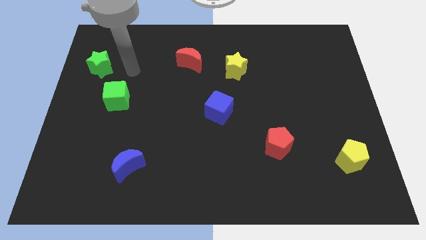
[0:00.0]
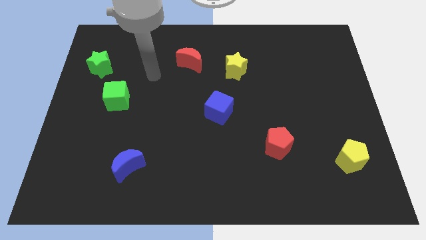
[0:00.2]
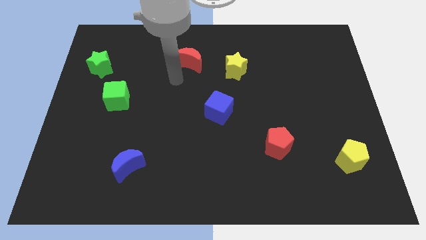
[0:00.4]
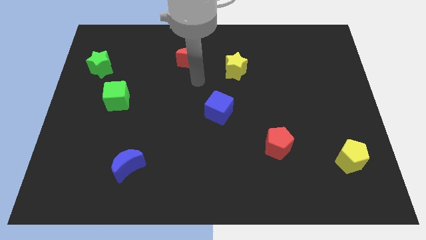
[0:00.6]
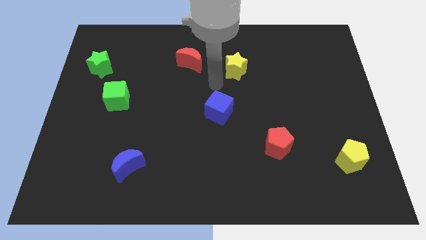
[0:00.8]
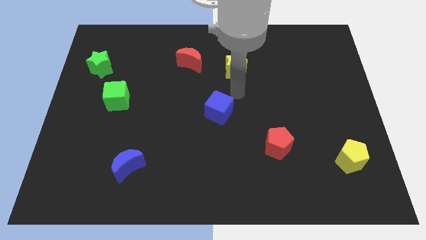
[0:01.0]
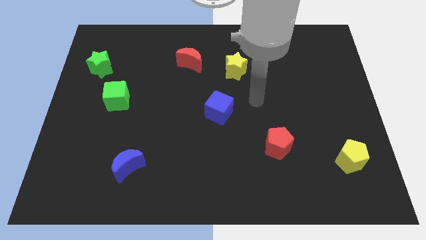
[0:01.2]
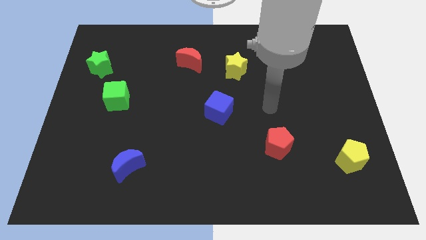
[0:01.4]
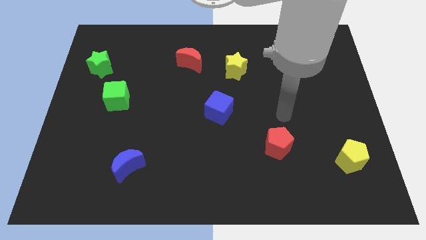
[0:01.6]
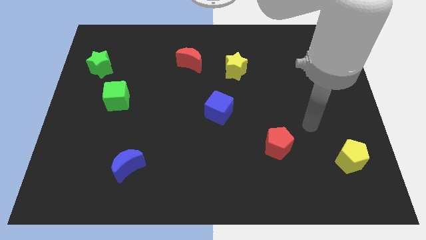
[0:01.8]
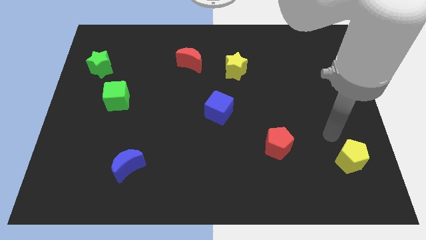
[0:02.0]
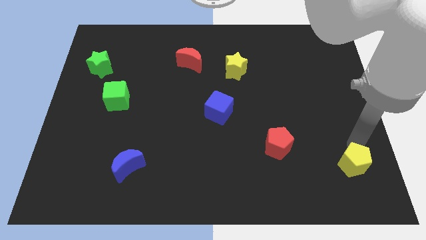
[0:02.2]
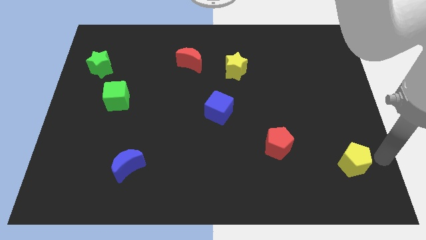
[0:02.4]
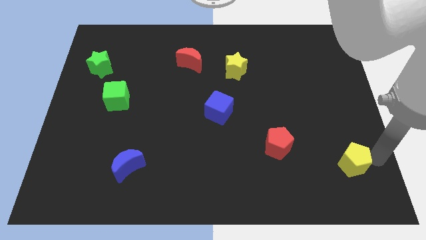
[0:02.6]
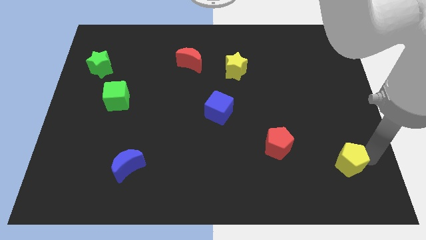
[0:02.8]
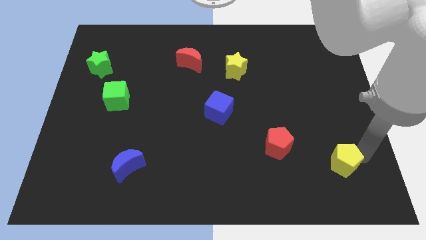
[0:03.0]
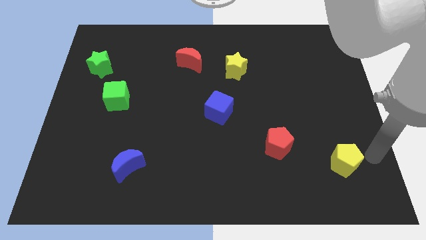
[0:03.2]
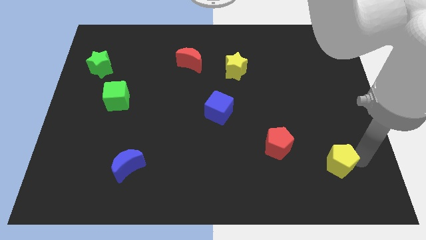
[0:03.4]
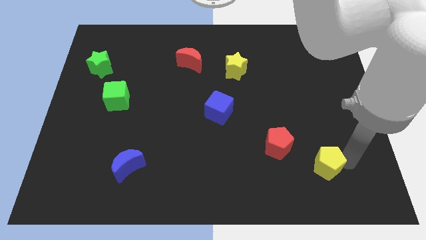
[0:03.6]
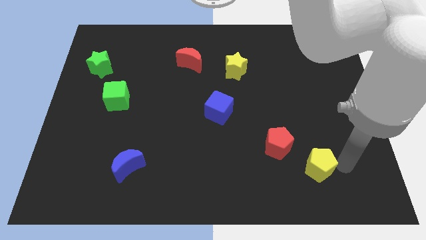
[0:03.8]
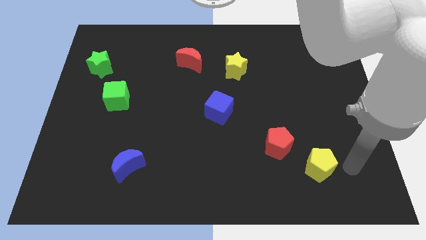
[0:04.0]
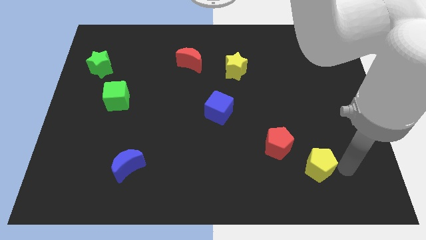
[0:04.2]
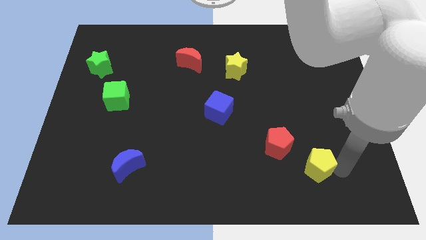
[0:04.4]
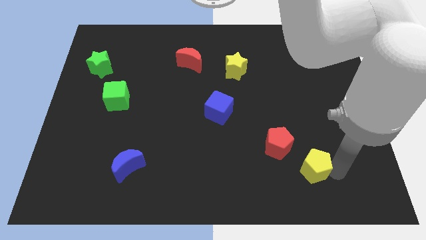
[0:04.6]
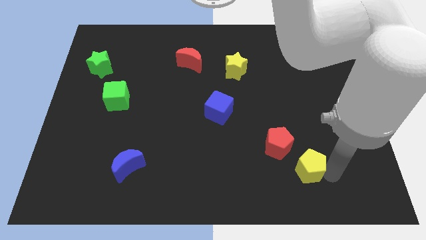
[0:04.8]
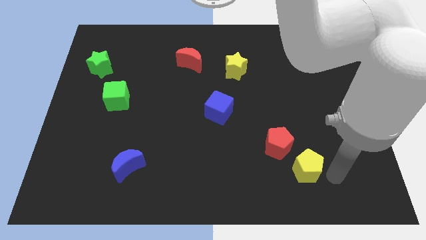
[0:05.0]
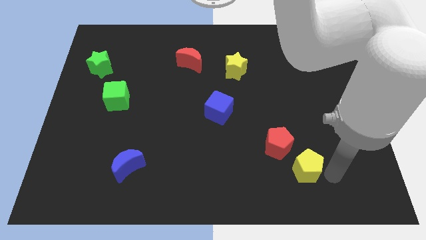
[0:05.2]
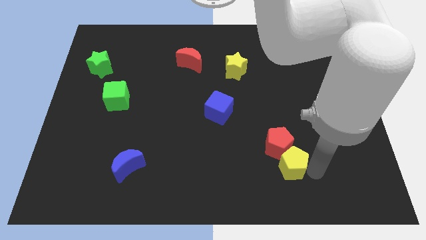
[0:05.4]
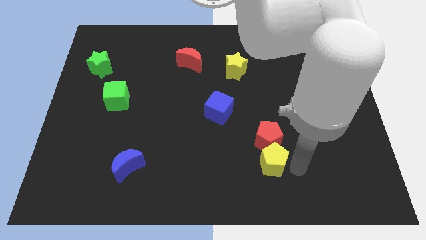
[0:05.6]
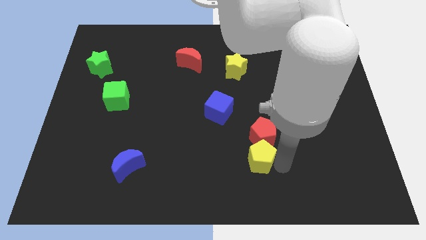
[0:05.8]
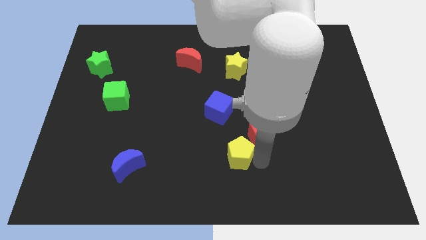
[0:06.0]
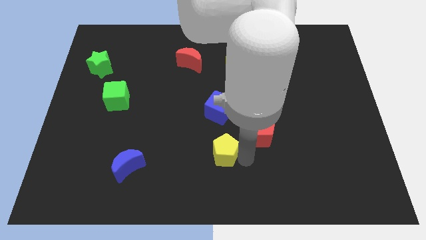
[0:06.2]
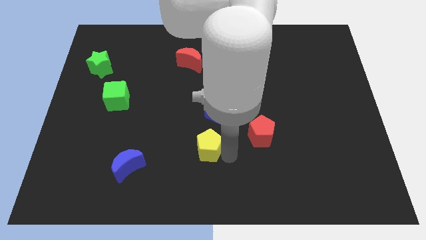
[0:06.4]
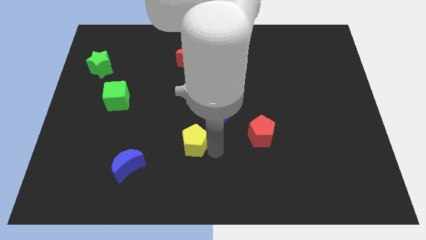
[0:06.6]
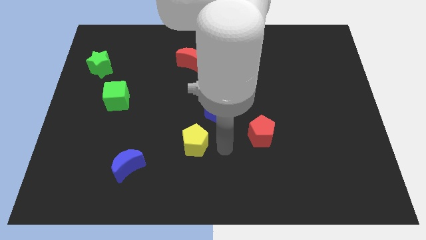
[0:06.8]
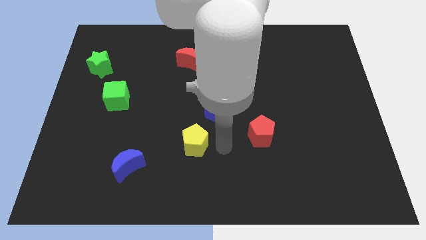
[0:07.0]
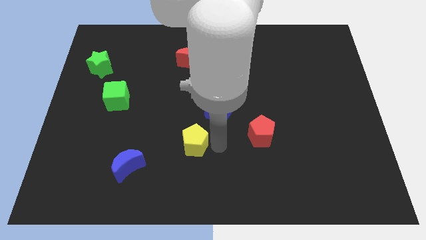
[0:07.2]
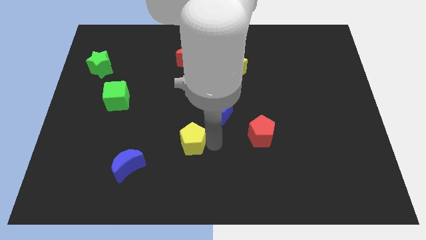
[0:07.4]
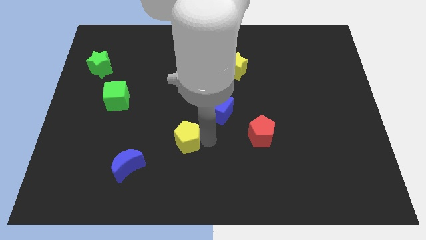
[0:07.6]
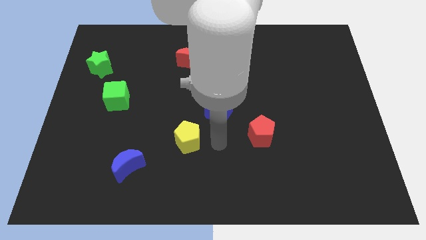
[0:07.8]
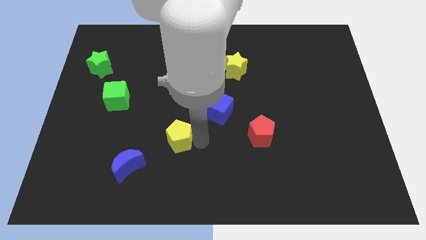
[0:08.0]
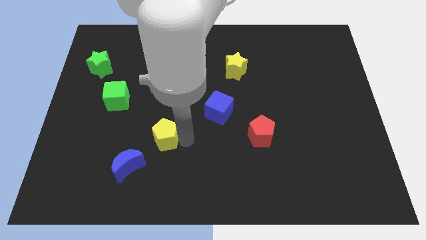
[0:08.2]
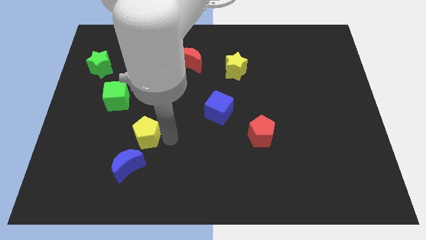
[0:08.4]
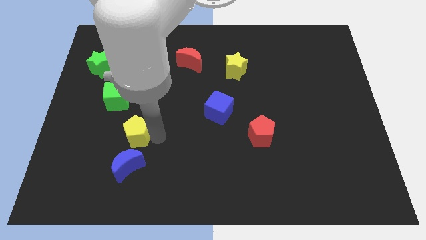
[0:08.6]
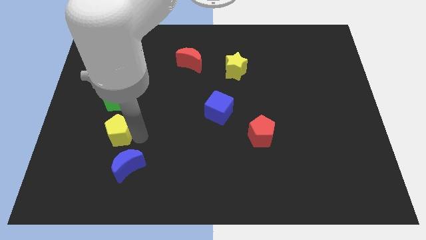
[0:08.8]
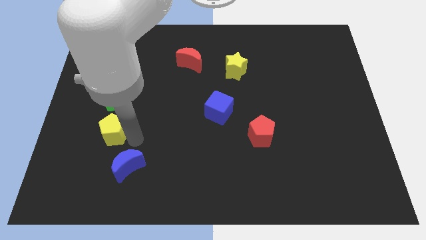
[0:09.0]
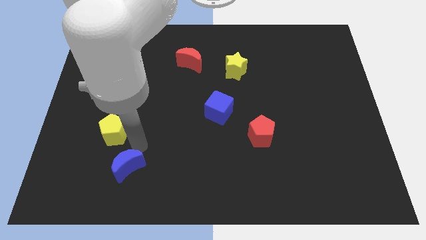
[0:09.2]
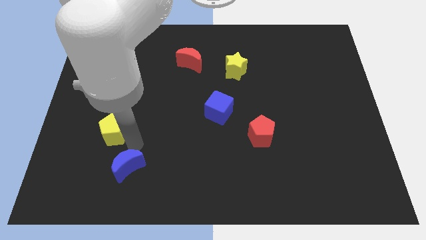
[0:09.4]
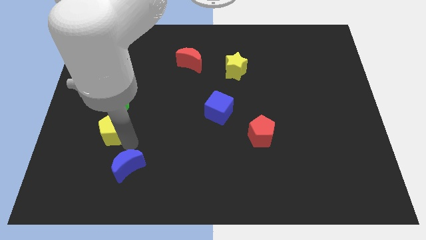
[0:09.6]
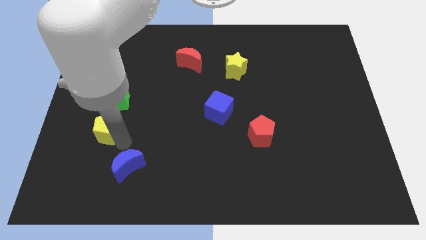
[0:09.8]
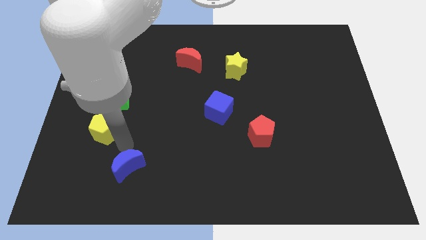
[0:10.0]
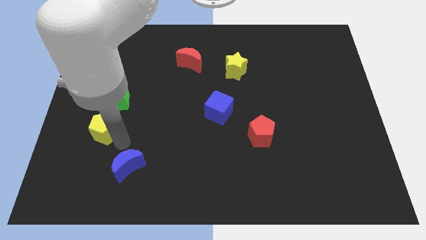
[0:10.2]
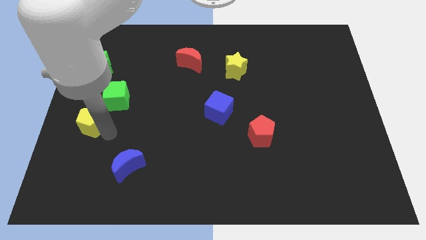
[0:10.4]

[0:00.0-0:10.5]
move the yellow pentagon to the left side of the board
